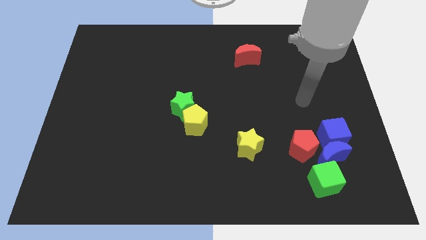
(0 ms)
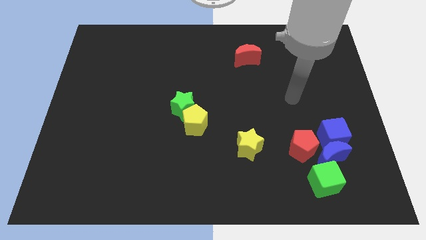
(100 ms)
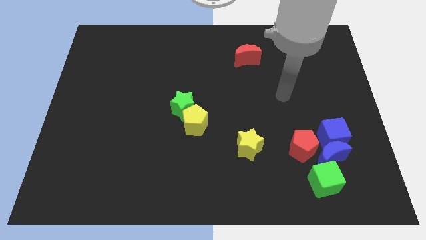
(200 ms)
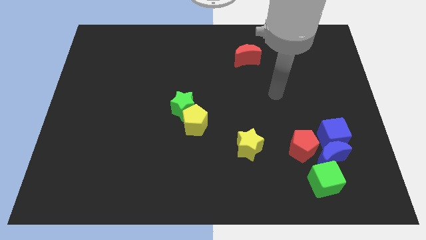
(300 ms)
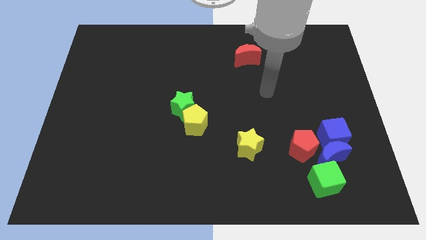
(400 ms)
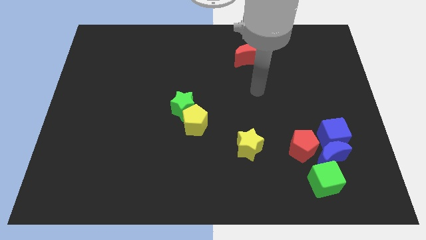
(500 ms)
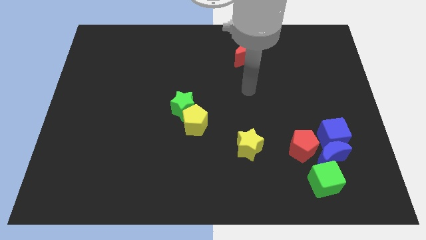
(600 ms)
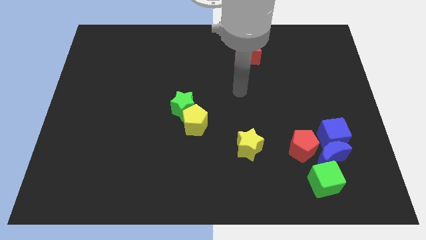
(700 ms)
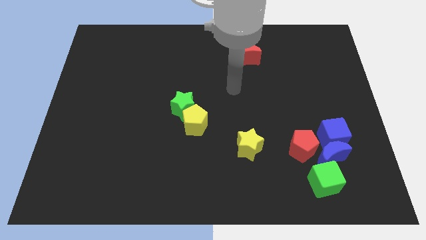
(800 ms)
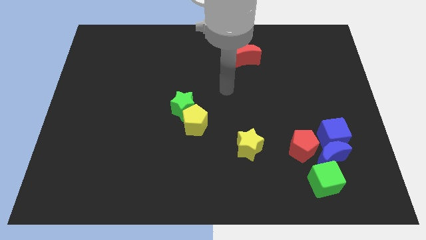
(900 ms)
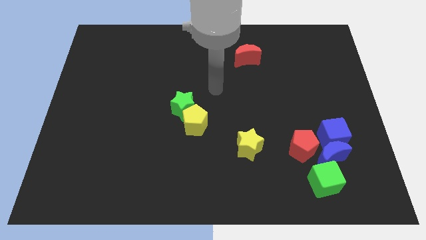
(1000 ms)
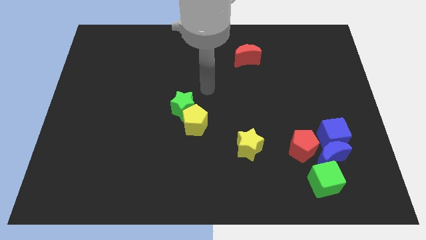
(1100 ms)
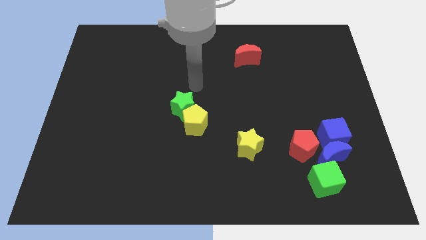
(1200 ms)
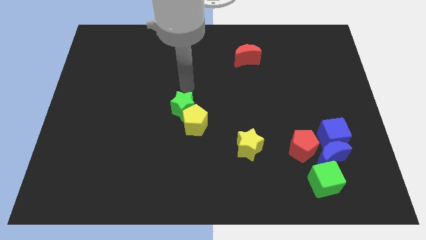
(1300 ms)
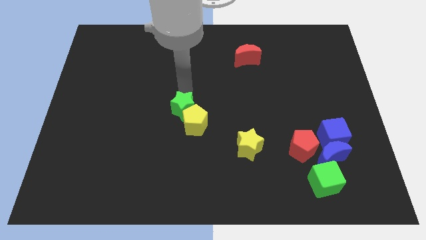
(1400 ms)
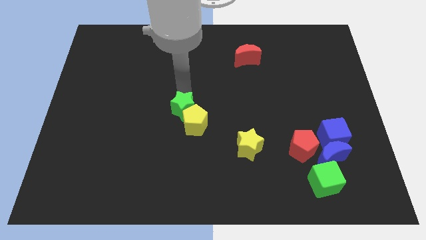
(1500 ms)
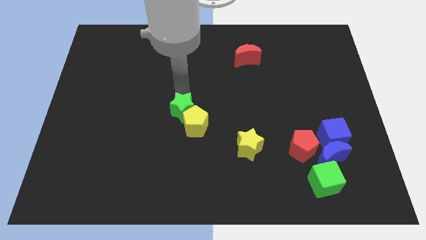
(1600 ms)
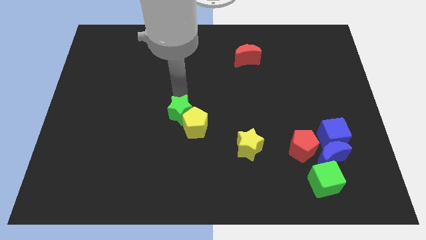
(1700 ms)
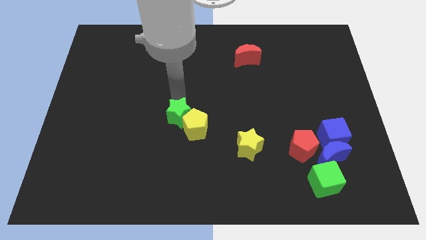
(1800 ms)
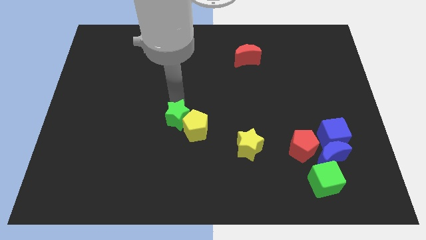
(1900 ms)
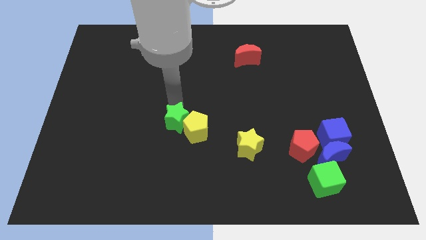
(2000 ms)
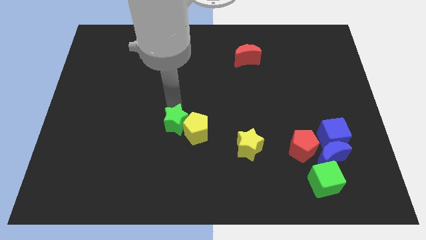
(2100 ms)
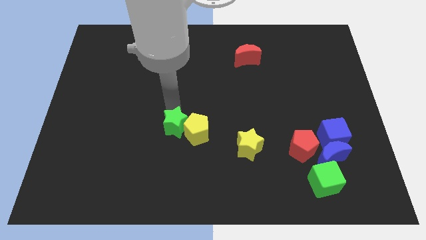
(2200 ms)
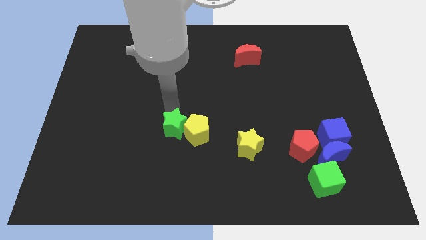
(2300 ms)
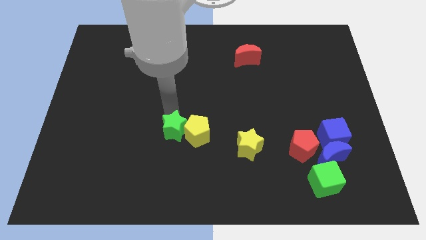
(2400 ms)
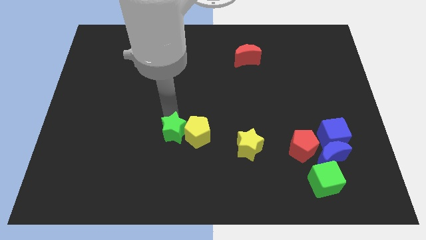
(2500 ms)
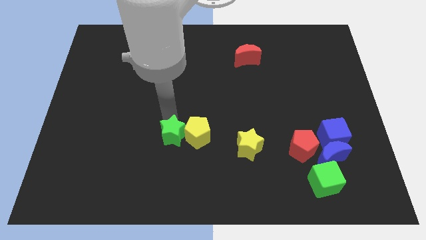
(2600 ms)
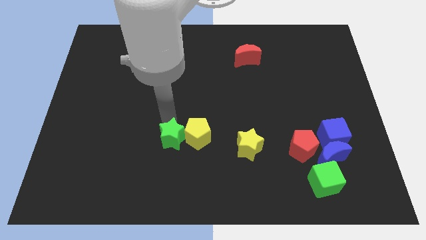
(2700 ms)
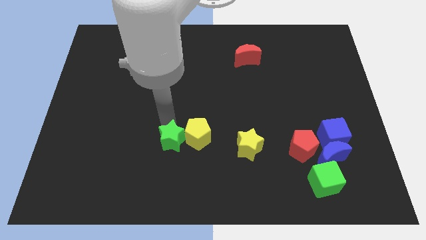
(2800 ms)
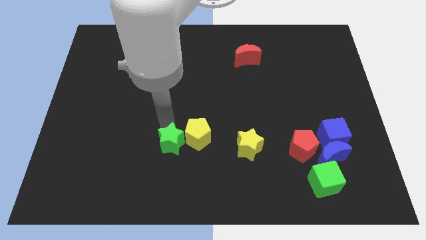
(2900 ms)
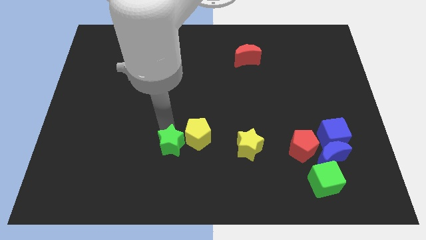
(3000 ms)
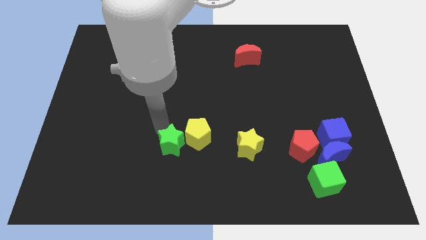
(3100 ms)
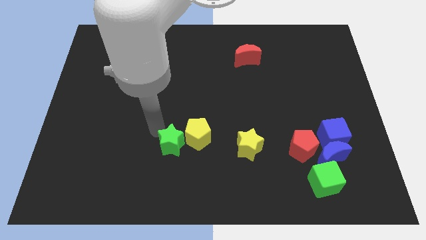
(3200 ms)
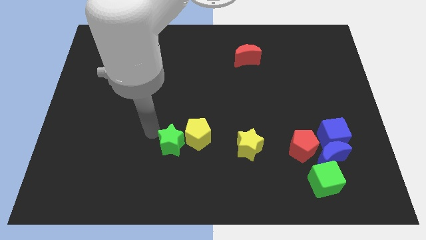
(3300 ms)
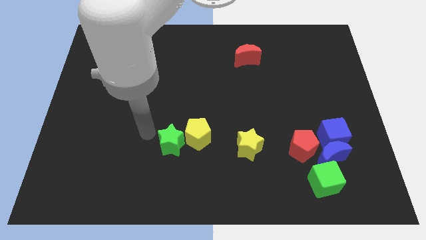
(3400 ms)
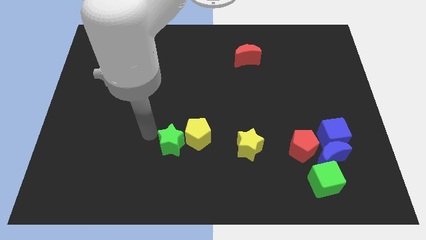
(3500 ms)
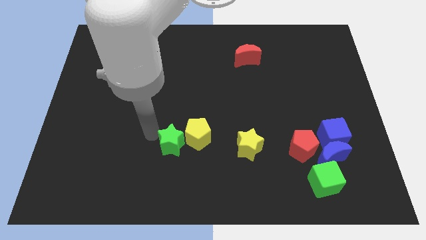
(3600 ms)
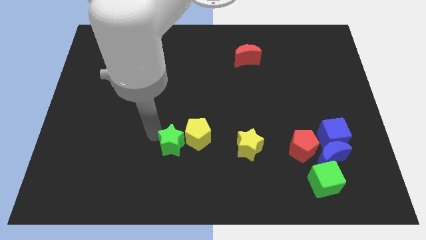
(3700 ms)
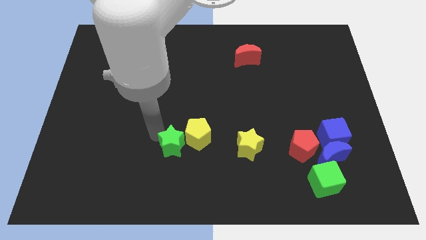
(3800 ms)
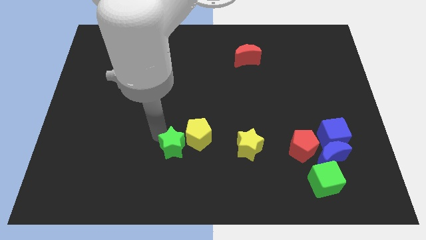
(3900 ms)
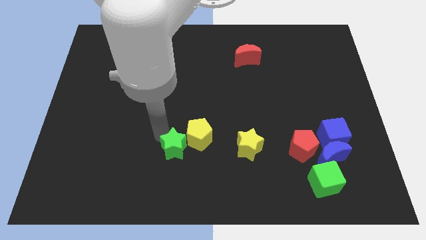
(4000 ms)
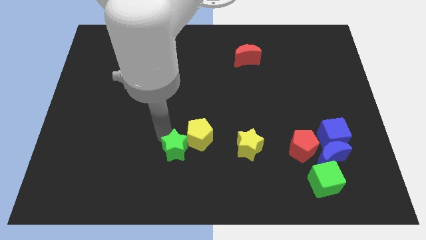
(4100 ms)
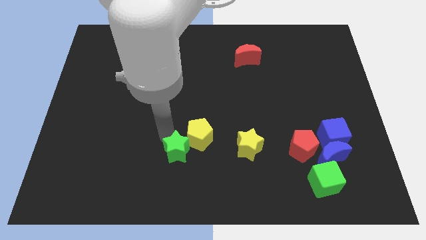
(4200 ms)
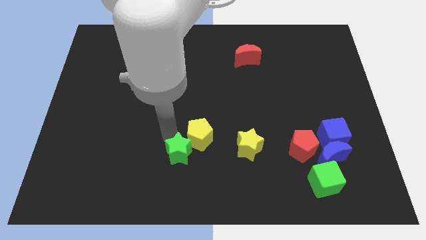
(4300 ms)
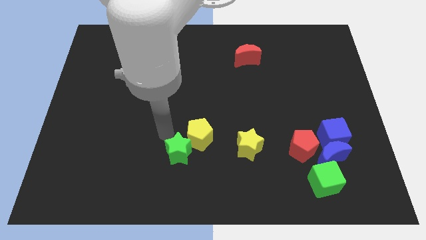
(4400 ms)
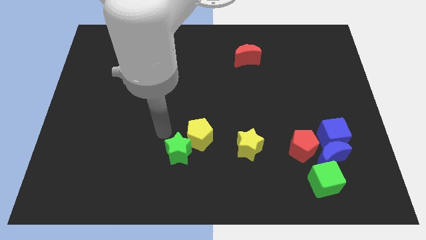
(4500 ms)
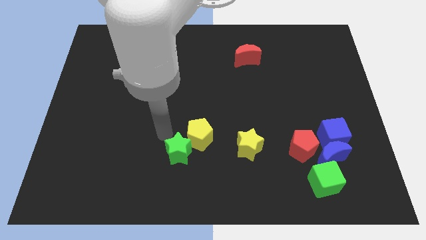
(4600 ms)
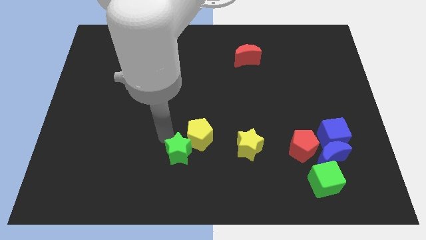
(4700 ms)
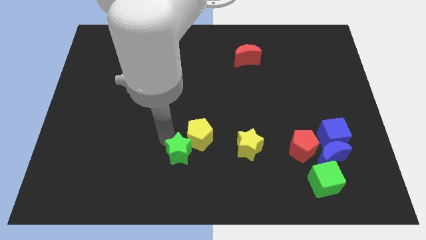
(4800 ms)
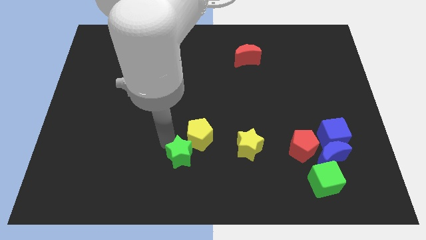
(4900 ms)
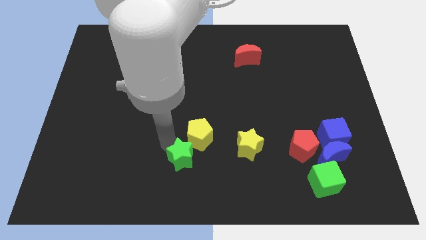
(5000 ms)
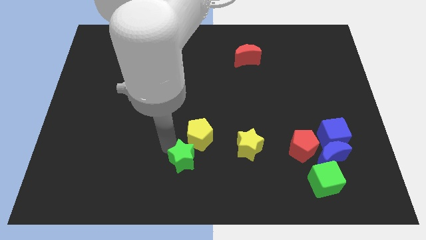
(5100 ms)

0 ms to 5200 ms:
put the green star to the bottom side

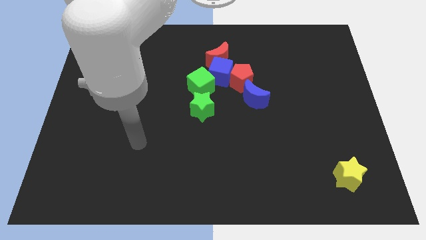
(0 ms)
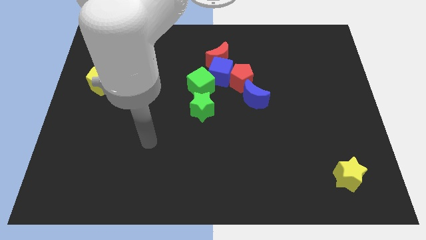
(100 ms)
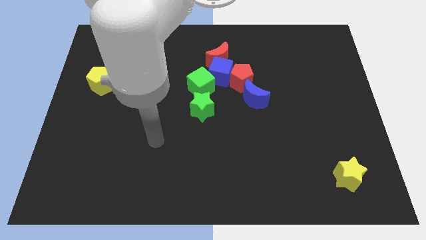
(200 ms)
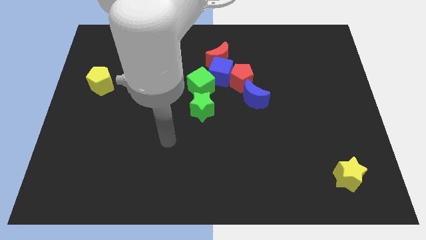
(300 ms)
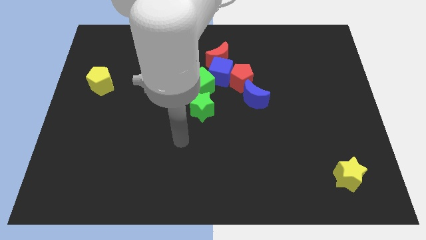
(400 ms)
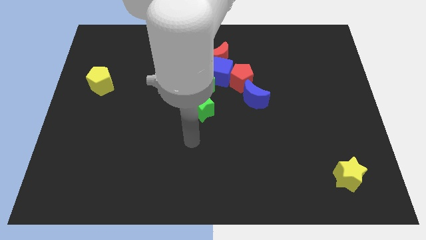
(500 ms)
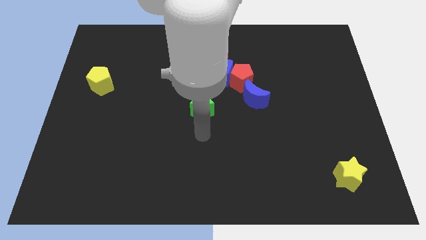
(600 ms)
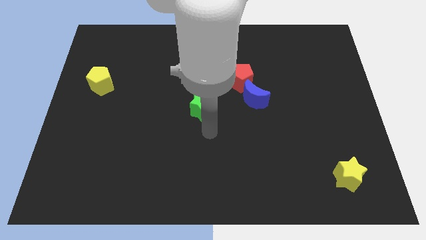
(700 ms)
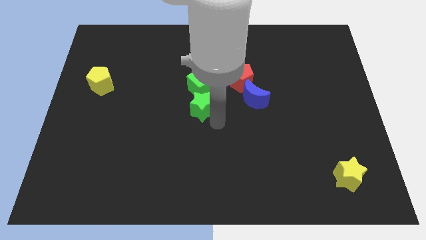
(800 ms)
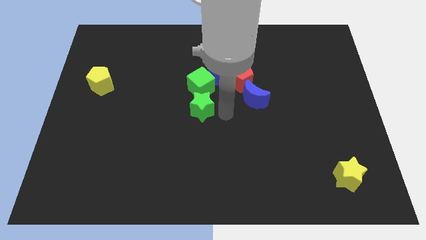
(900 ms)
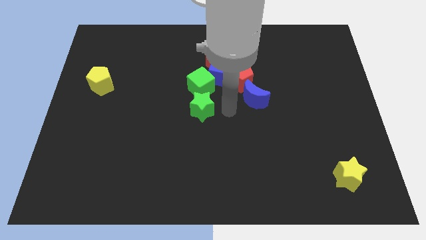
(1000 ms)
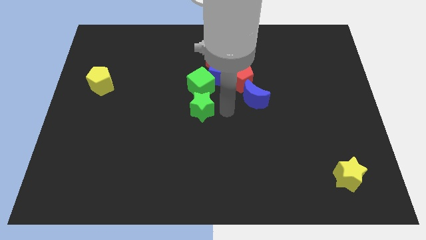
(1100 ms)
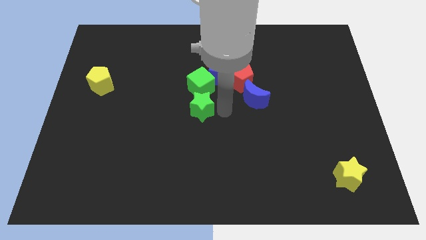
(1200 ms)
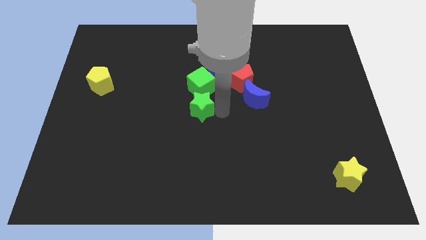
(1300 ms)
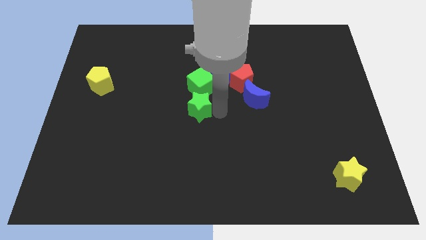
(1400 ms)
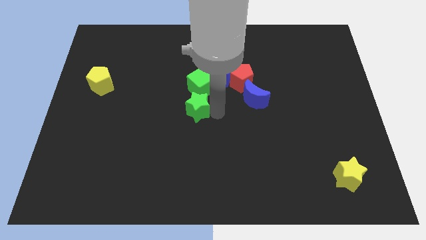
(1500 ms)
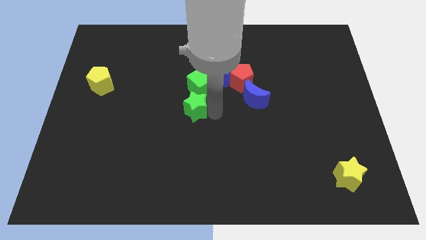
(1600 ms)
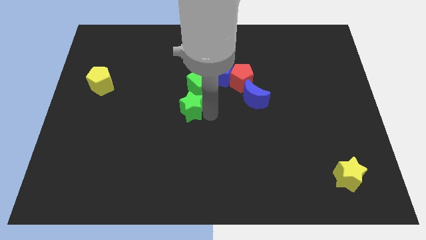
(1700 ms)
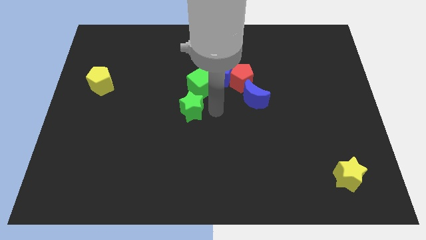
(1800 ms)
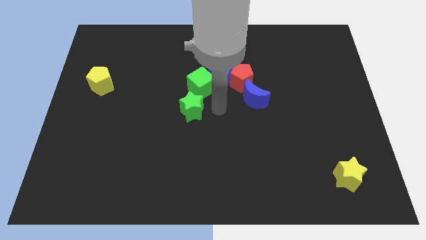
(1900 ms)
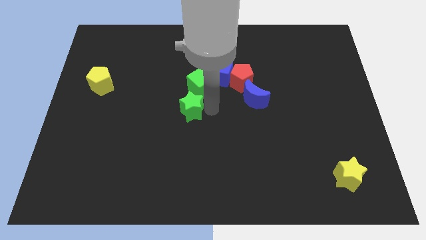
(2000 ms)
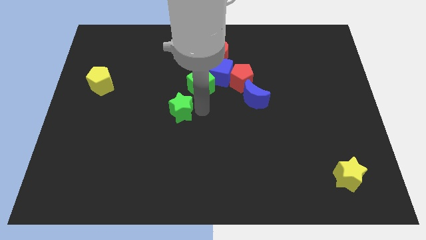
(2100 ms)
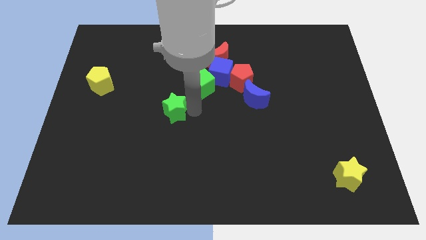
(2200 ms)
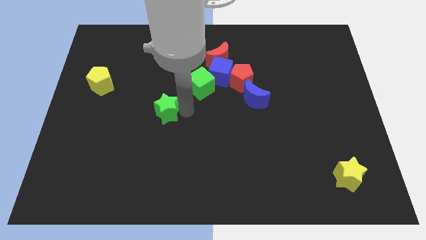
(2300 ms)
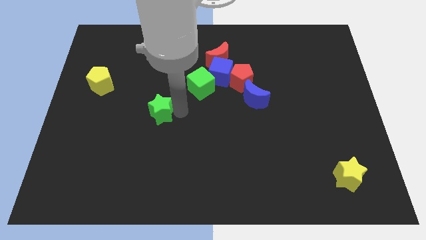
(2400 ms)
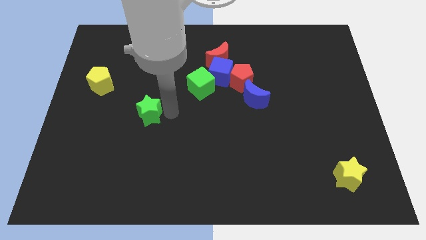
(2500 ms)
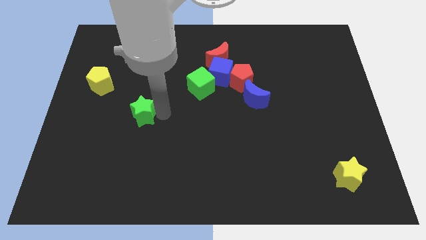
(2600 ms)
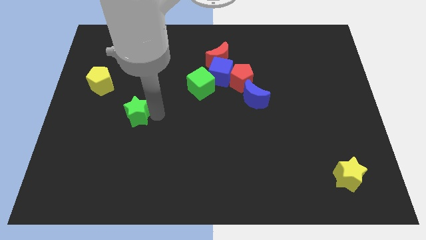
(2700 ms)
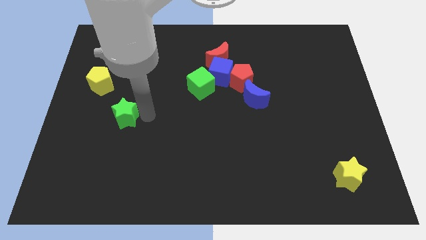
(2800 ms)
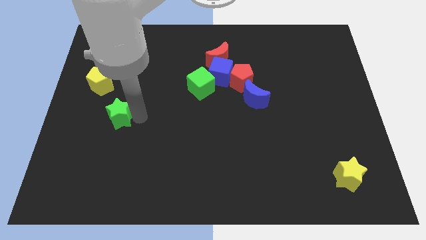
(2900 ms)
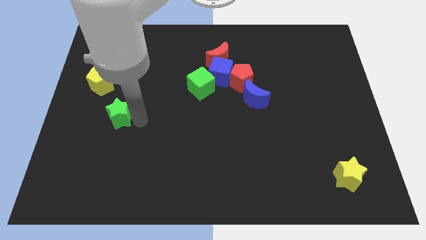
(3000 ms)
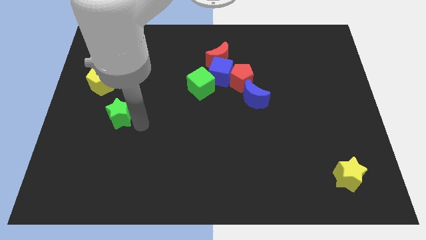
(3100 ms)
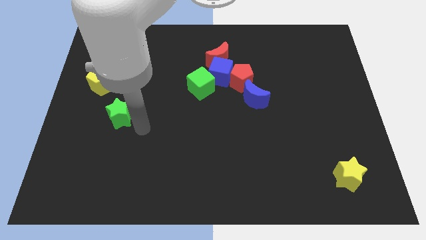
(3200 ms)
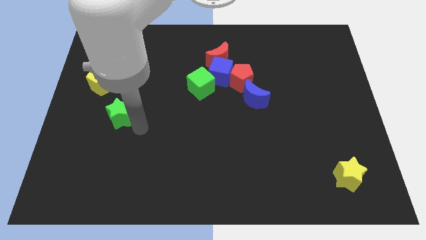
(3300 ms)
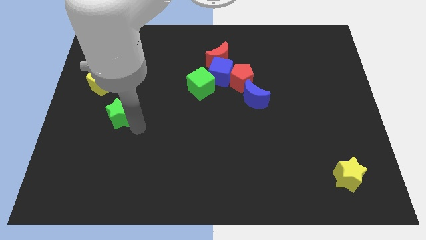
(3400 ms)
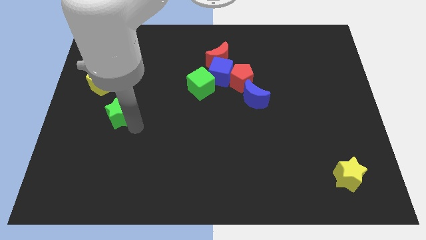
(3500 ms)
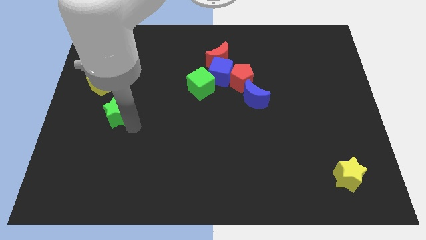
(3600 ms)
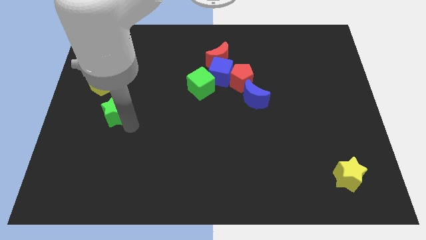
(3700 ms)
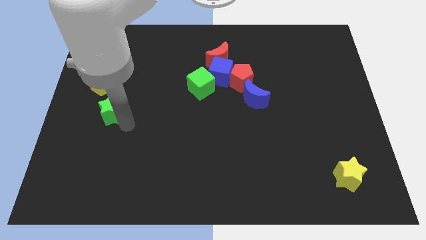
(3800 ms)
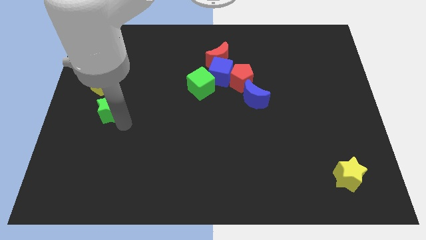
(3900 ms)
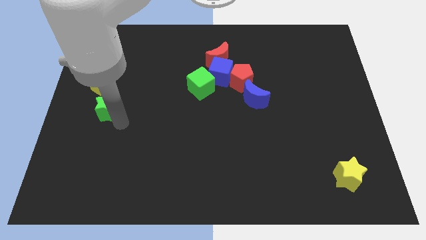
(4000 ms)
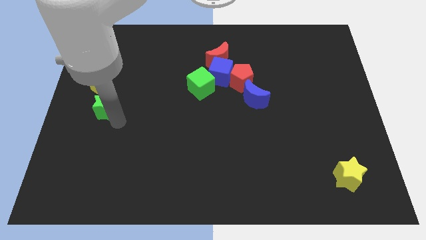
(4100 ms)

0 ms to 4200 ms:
push the green star to the left side
